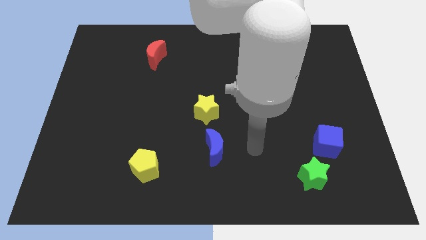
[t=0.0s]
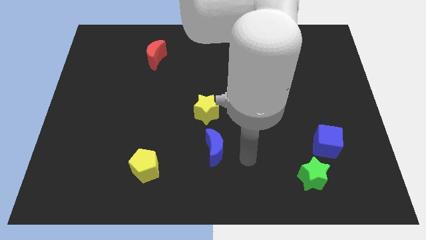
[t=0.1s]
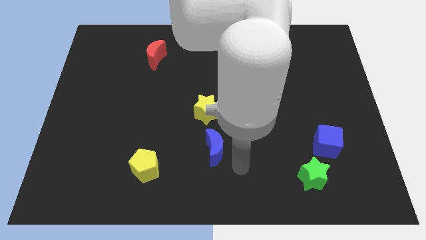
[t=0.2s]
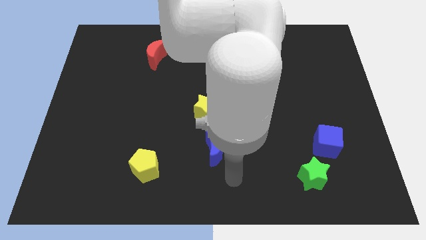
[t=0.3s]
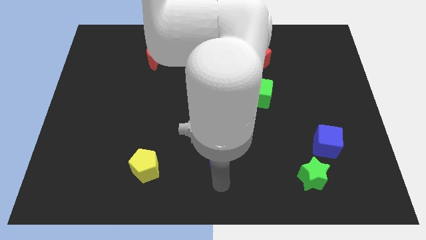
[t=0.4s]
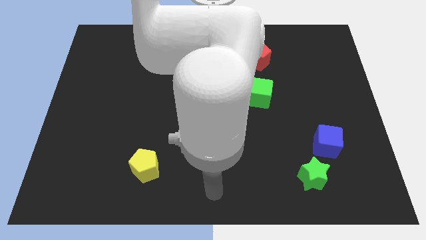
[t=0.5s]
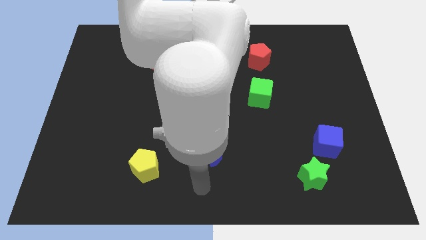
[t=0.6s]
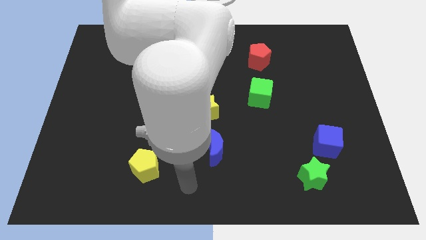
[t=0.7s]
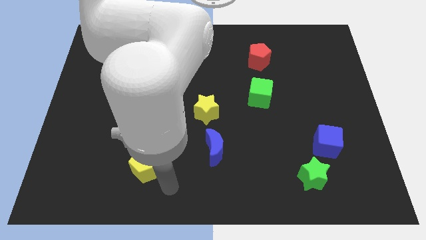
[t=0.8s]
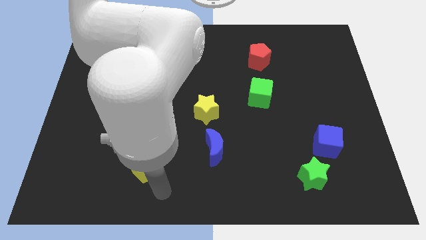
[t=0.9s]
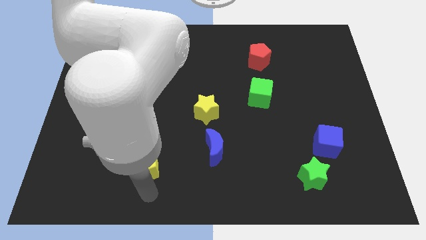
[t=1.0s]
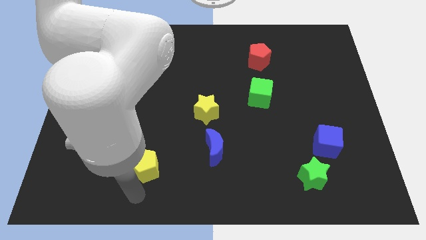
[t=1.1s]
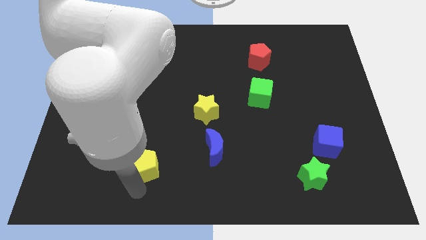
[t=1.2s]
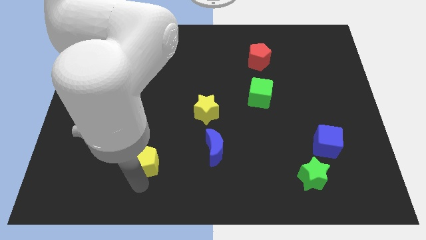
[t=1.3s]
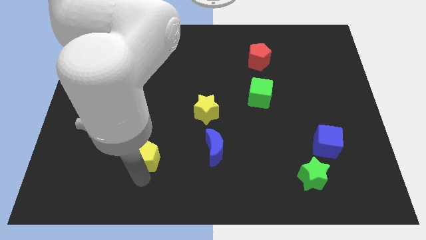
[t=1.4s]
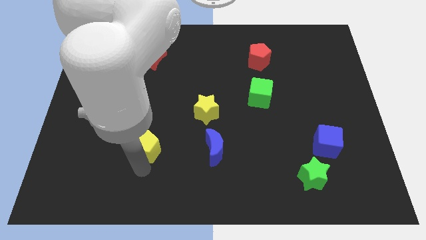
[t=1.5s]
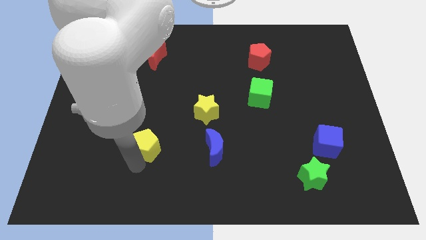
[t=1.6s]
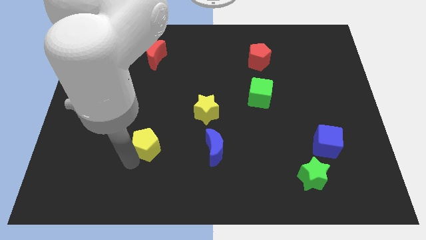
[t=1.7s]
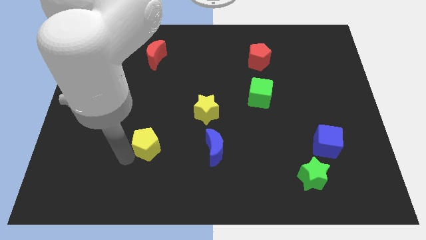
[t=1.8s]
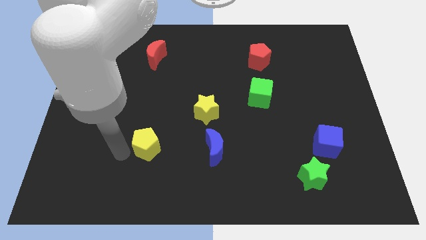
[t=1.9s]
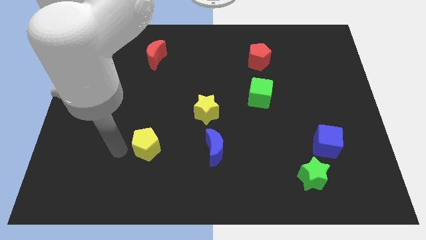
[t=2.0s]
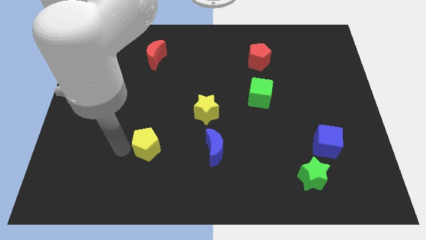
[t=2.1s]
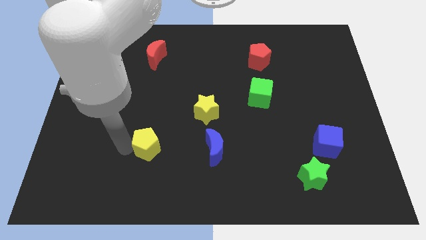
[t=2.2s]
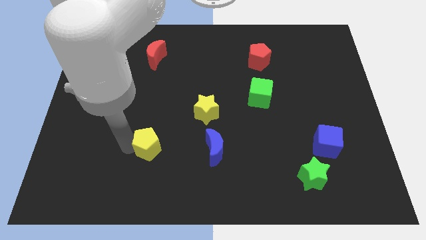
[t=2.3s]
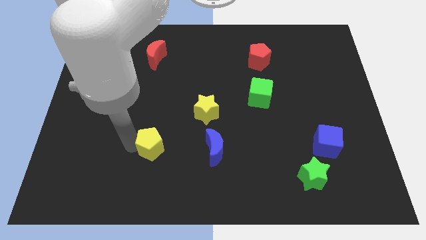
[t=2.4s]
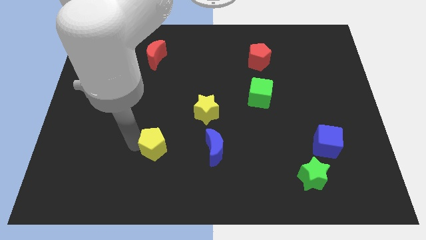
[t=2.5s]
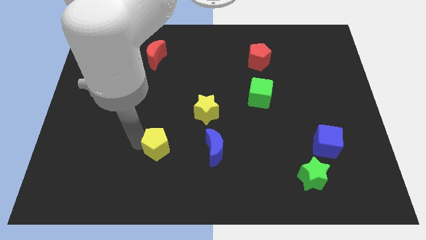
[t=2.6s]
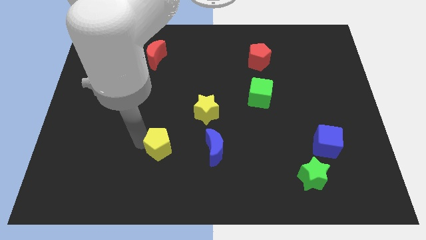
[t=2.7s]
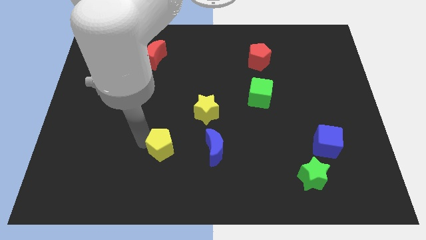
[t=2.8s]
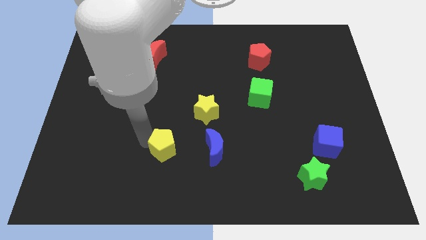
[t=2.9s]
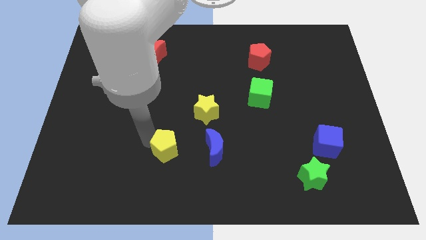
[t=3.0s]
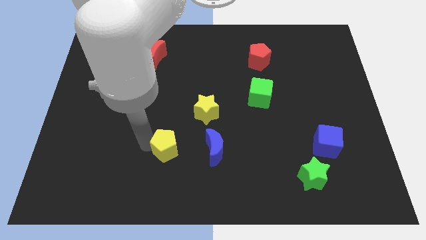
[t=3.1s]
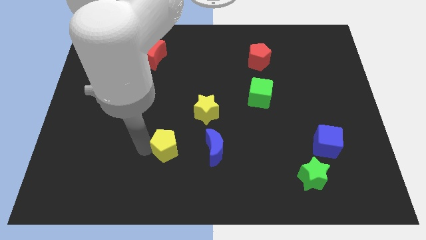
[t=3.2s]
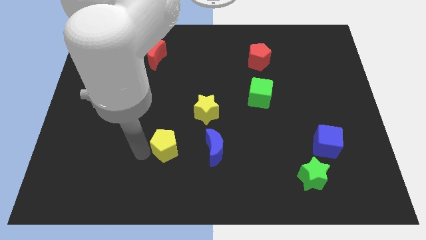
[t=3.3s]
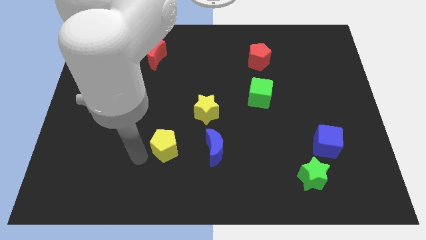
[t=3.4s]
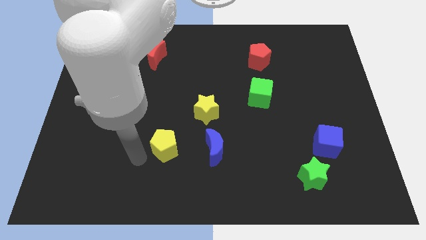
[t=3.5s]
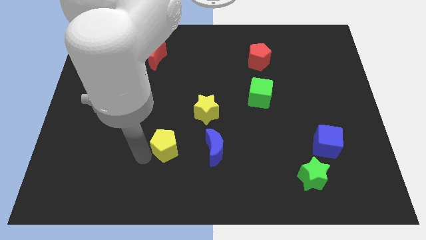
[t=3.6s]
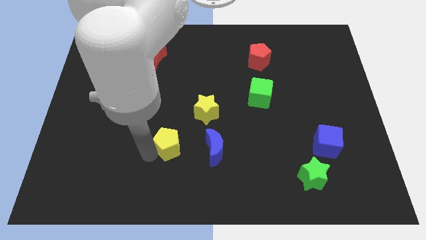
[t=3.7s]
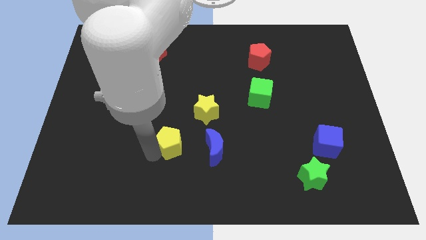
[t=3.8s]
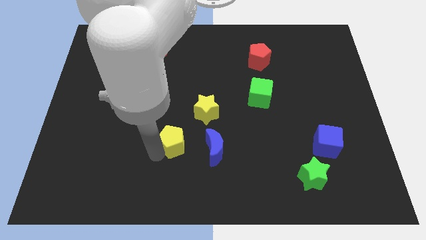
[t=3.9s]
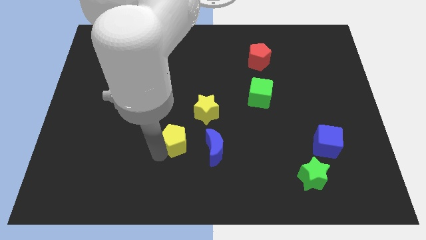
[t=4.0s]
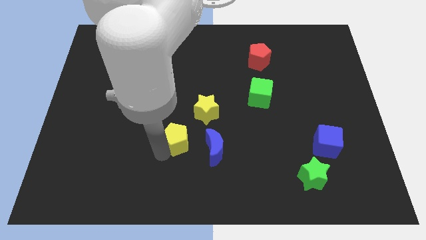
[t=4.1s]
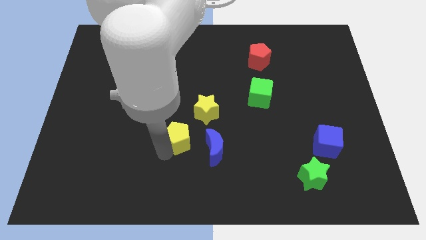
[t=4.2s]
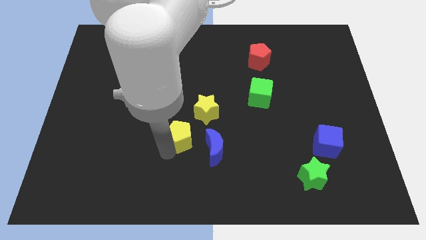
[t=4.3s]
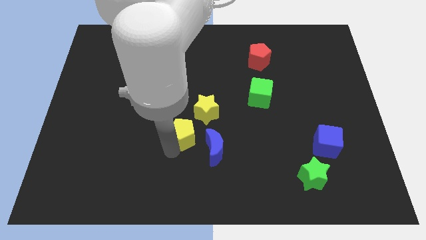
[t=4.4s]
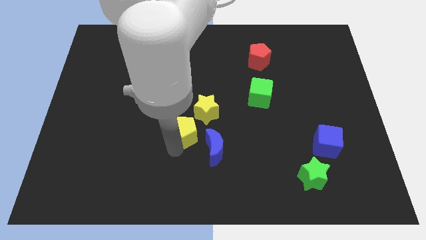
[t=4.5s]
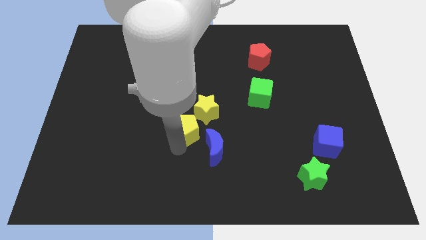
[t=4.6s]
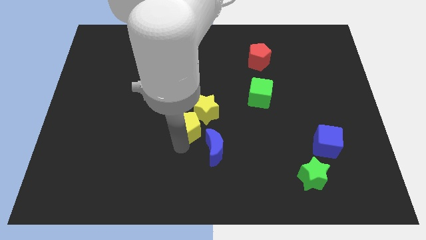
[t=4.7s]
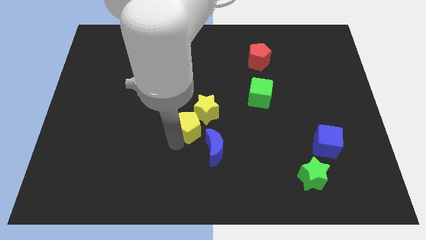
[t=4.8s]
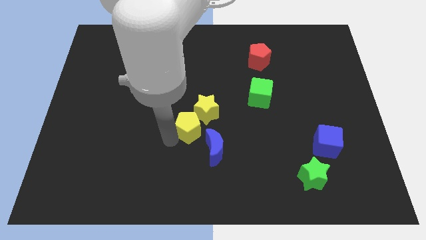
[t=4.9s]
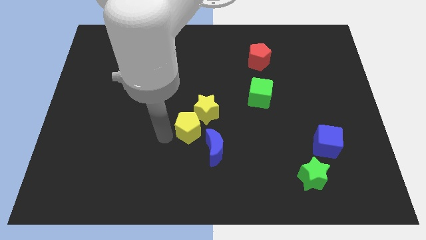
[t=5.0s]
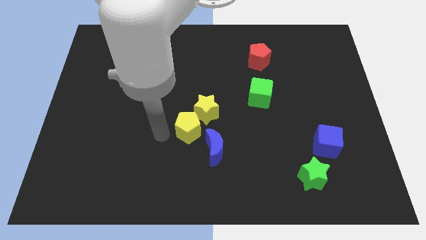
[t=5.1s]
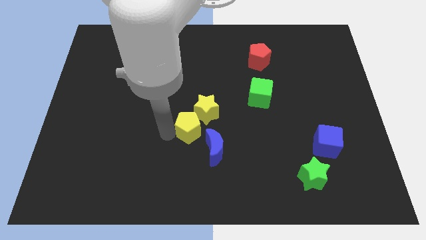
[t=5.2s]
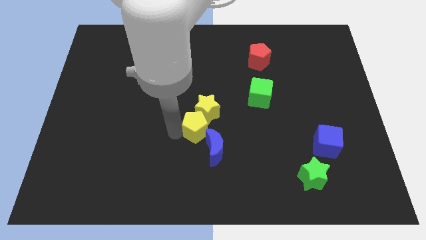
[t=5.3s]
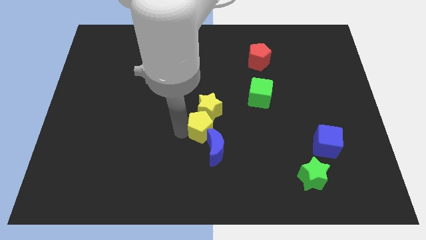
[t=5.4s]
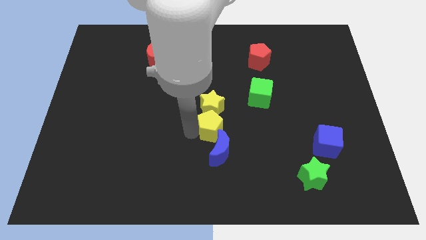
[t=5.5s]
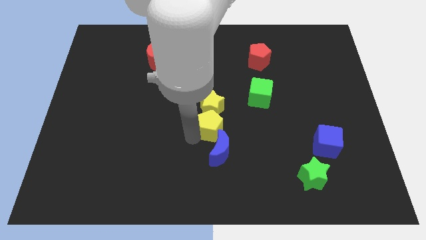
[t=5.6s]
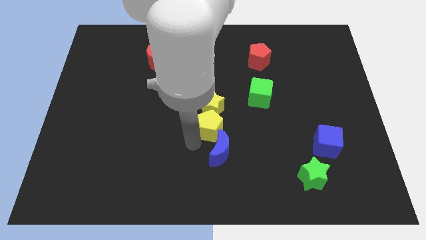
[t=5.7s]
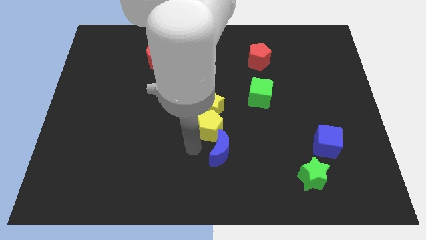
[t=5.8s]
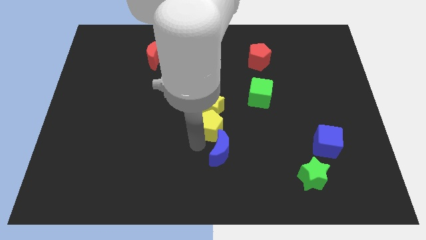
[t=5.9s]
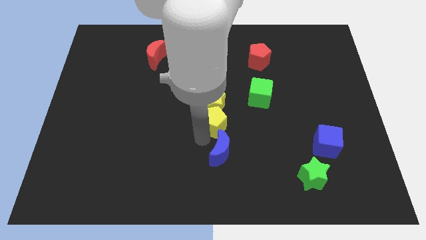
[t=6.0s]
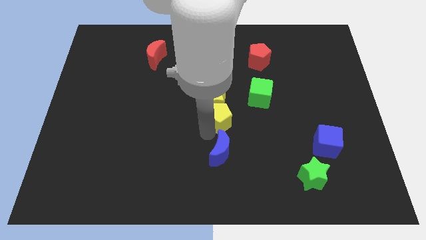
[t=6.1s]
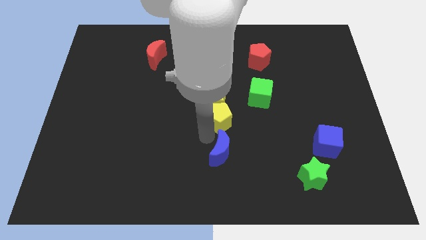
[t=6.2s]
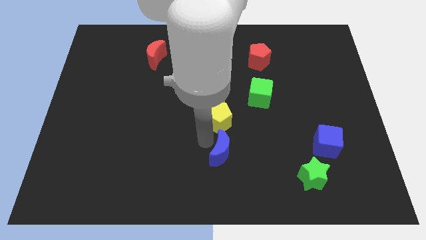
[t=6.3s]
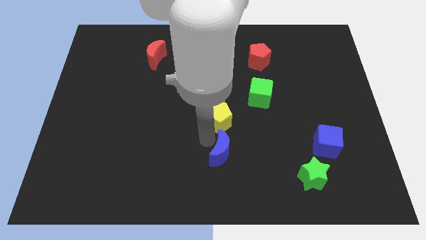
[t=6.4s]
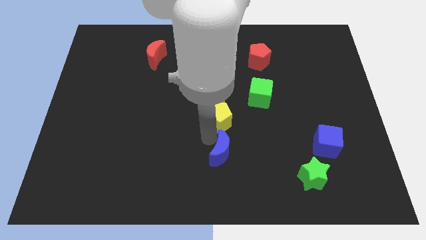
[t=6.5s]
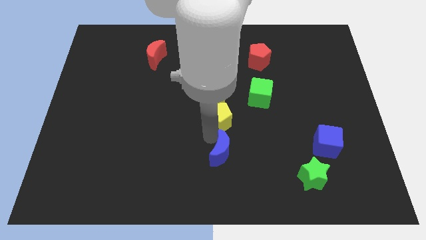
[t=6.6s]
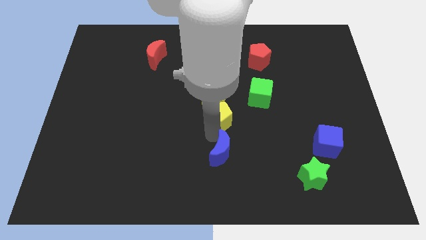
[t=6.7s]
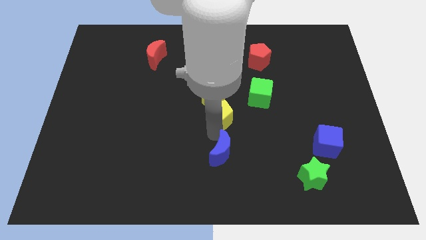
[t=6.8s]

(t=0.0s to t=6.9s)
push the yellow pentagon upwards and then right

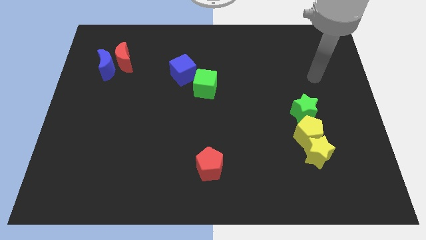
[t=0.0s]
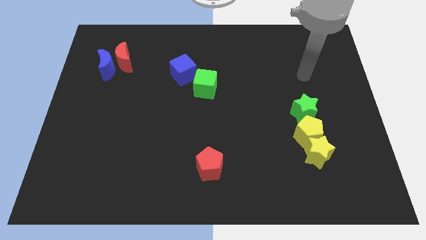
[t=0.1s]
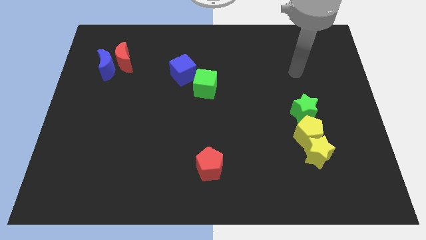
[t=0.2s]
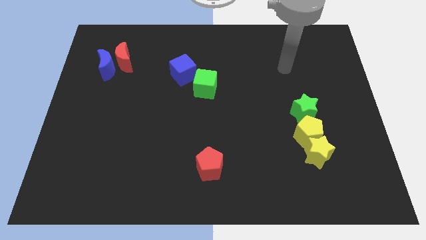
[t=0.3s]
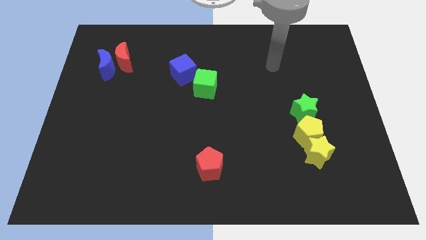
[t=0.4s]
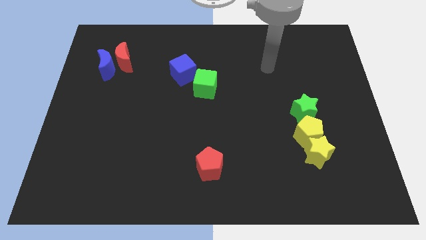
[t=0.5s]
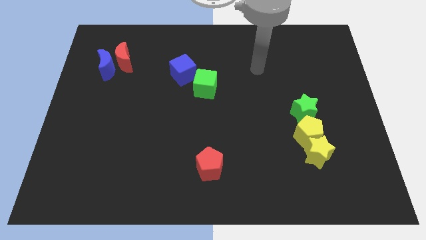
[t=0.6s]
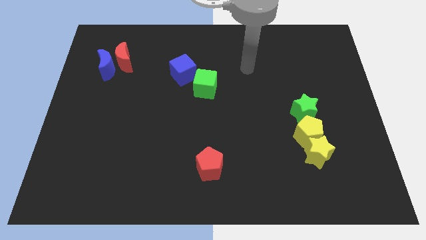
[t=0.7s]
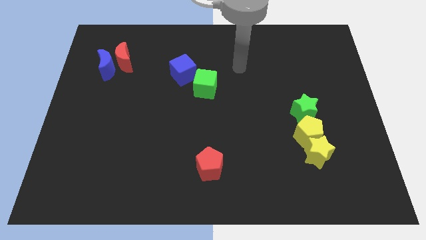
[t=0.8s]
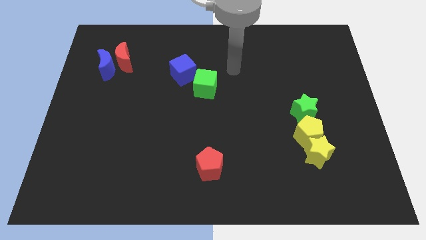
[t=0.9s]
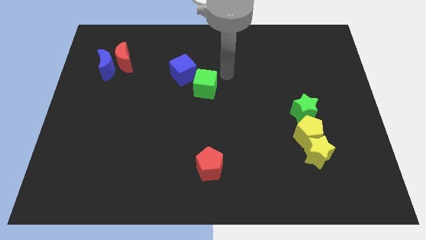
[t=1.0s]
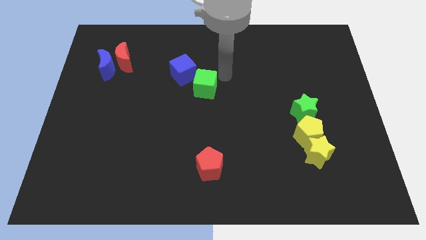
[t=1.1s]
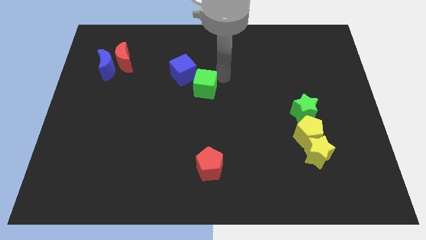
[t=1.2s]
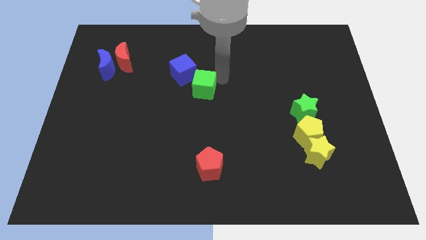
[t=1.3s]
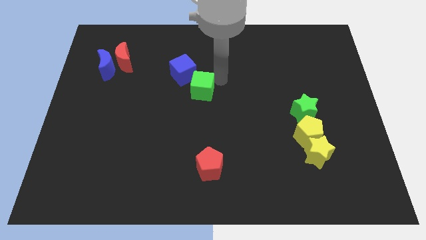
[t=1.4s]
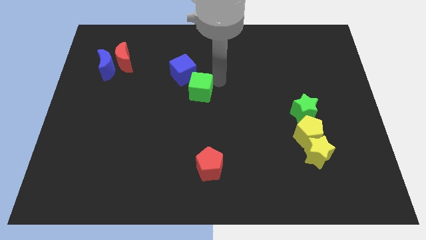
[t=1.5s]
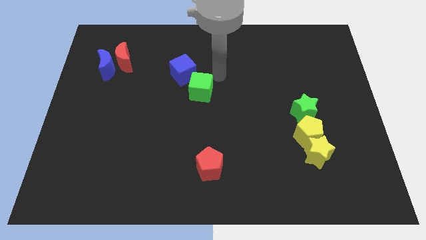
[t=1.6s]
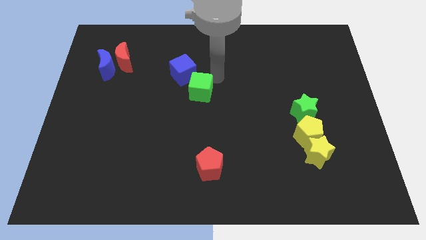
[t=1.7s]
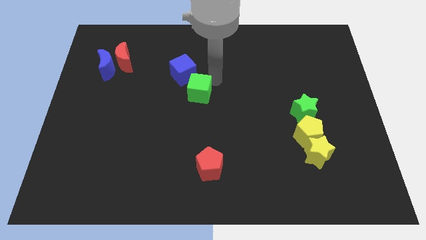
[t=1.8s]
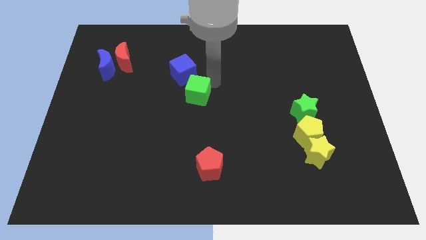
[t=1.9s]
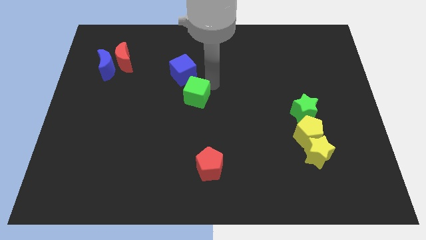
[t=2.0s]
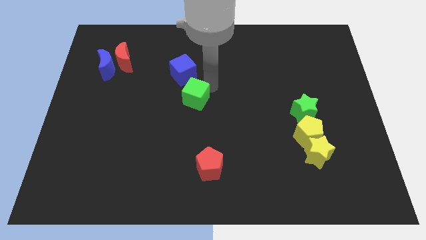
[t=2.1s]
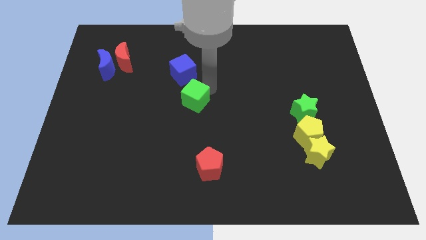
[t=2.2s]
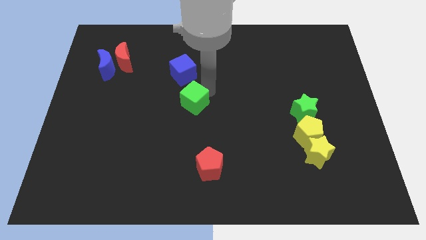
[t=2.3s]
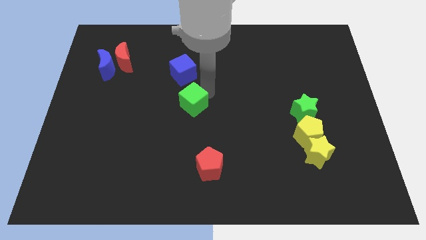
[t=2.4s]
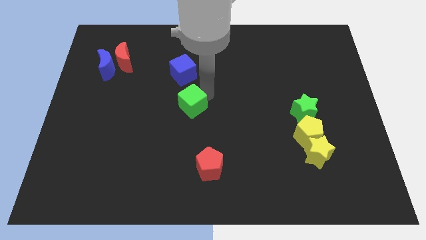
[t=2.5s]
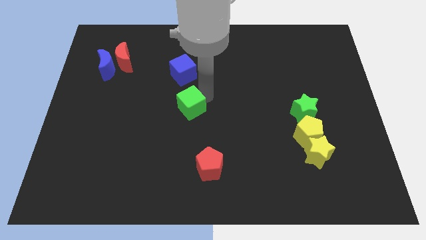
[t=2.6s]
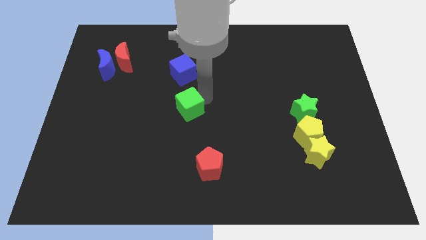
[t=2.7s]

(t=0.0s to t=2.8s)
push the green cube downwards and left diagonally a little
